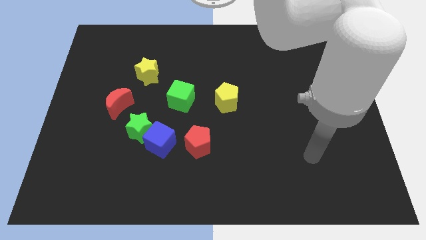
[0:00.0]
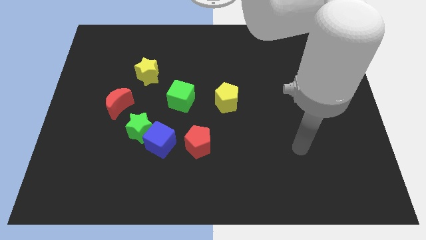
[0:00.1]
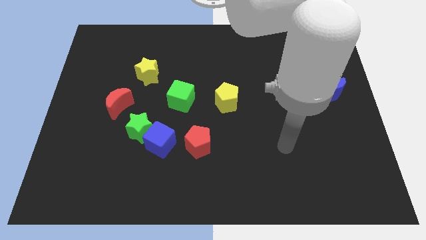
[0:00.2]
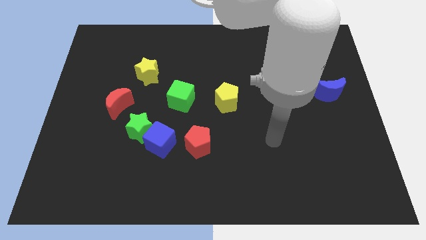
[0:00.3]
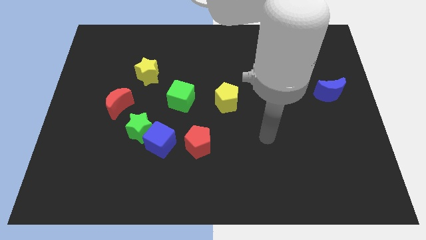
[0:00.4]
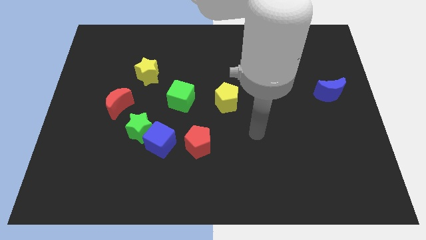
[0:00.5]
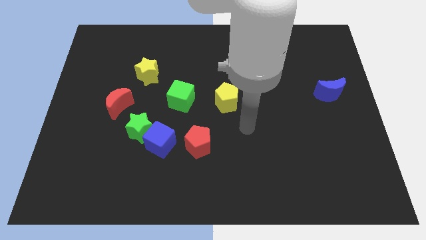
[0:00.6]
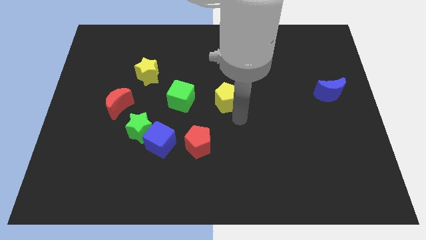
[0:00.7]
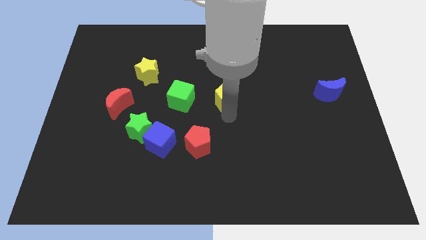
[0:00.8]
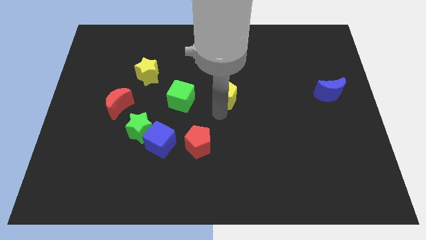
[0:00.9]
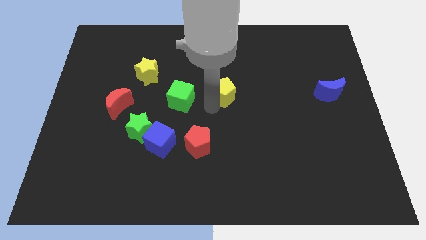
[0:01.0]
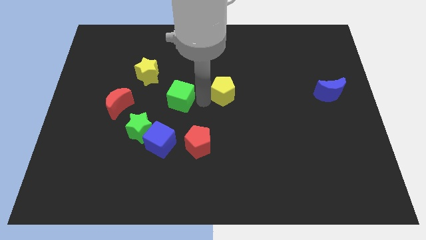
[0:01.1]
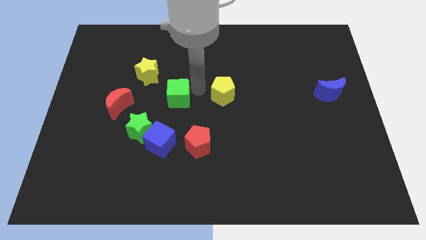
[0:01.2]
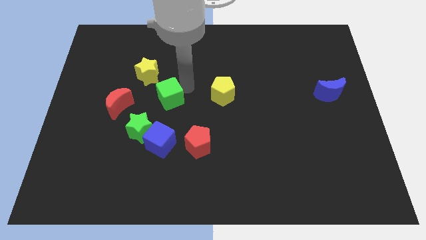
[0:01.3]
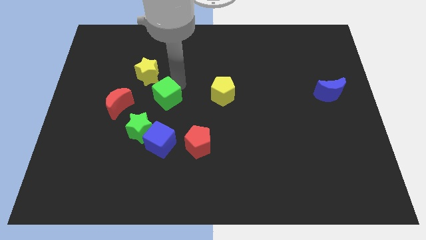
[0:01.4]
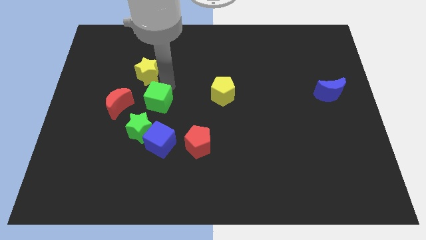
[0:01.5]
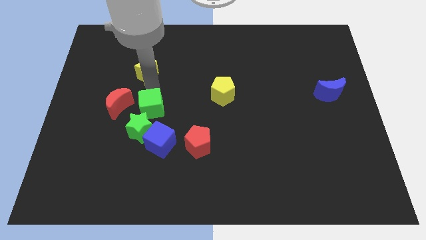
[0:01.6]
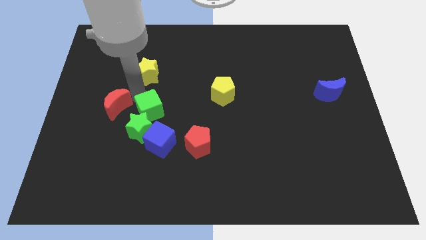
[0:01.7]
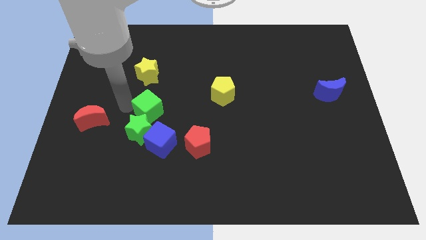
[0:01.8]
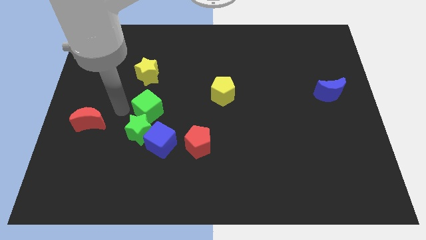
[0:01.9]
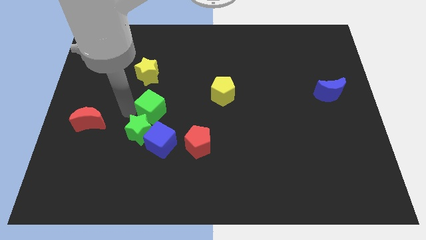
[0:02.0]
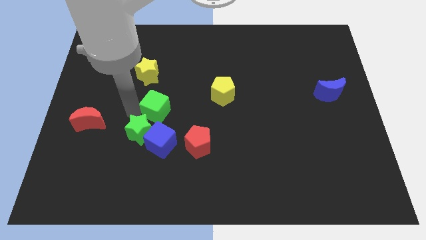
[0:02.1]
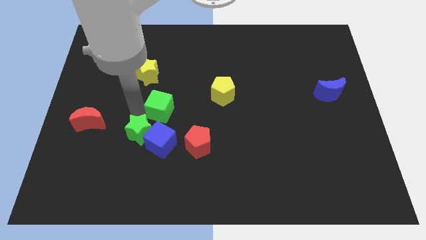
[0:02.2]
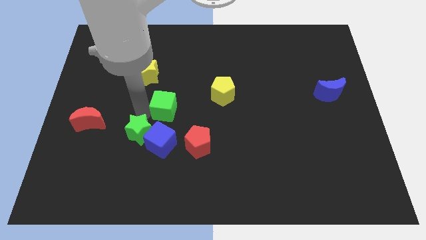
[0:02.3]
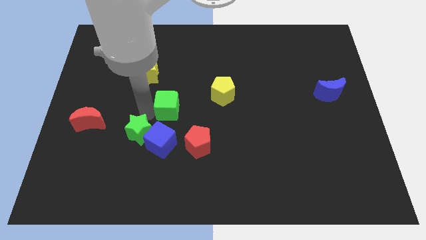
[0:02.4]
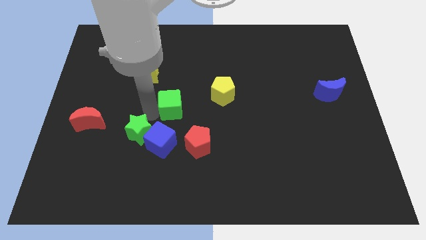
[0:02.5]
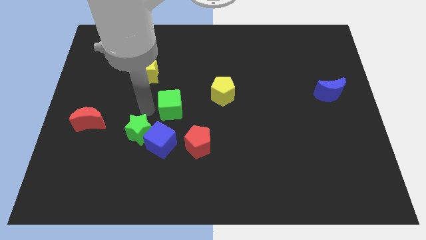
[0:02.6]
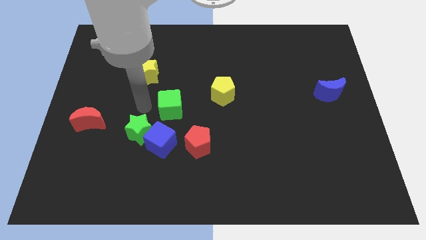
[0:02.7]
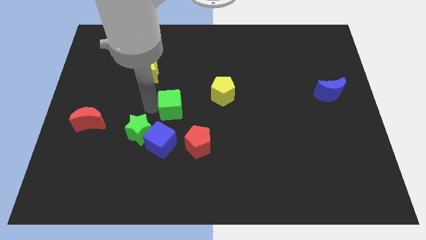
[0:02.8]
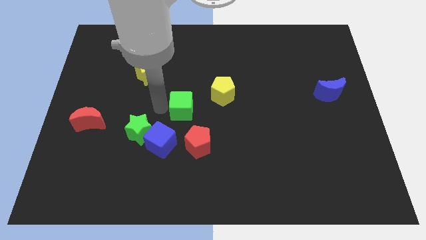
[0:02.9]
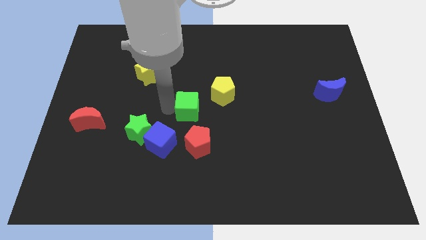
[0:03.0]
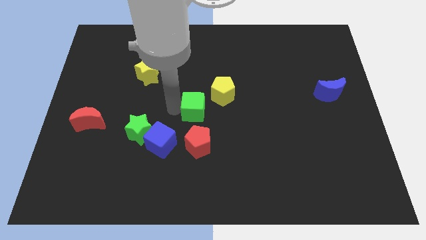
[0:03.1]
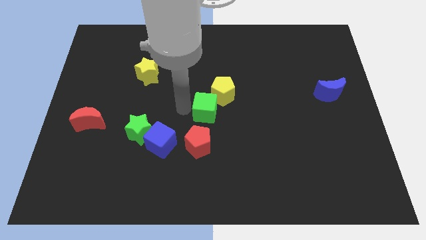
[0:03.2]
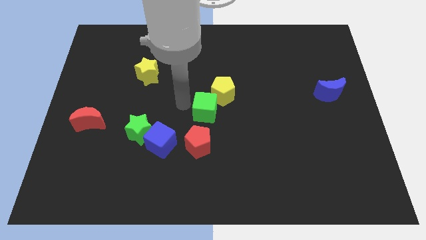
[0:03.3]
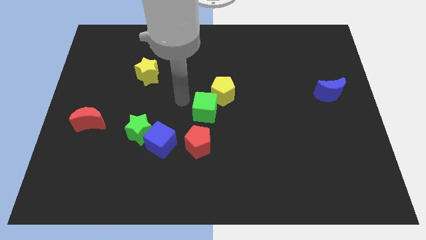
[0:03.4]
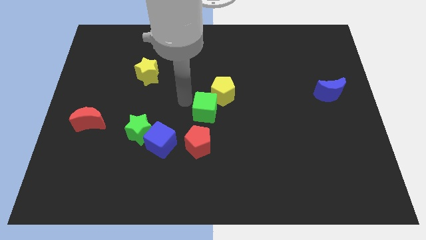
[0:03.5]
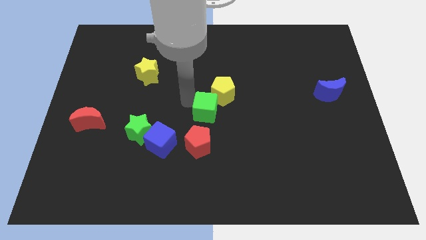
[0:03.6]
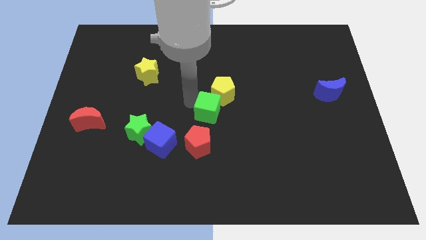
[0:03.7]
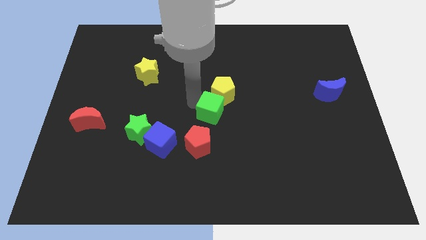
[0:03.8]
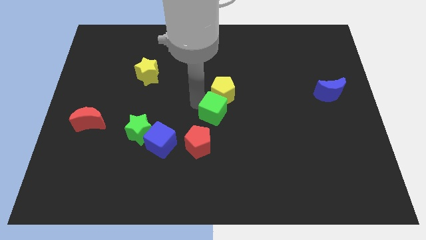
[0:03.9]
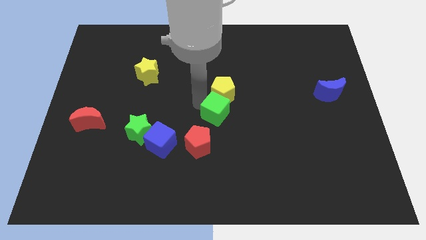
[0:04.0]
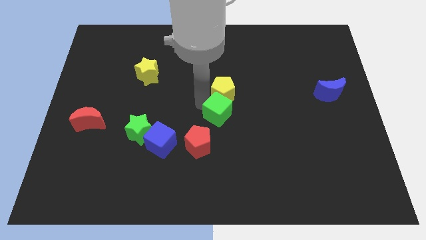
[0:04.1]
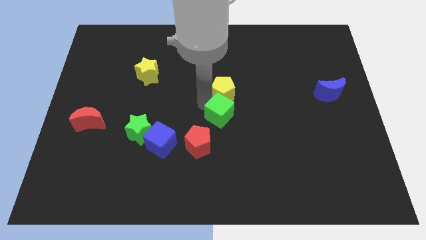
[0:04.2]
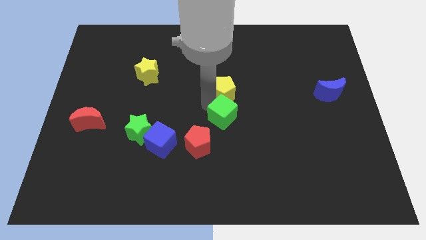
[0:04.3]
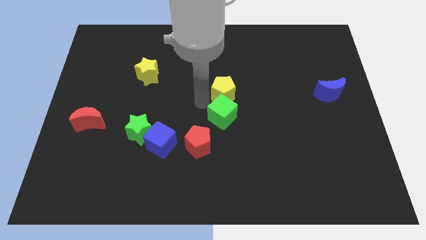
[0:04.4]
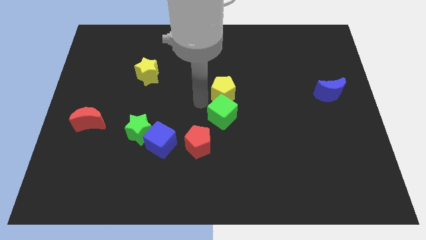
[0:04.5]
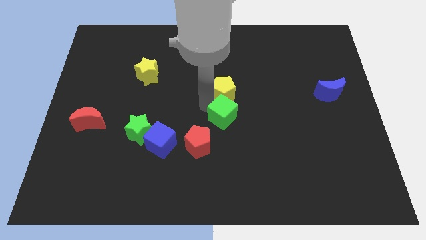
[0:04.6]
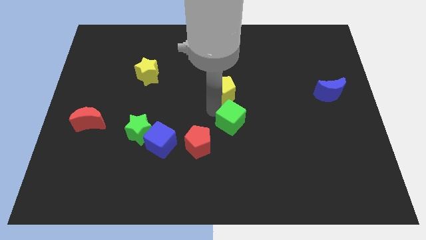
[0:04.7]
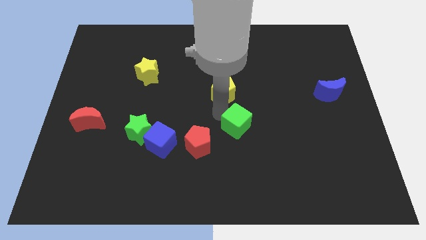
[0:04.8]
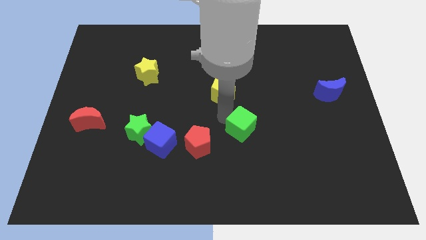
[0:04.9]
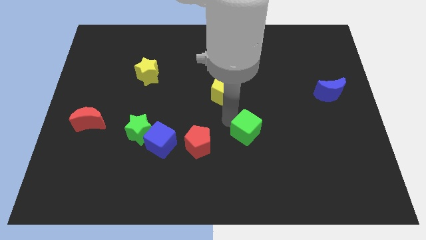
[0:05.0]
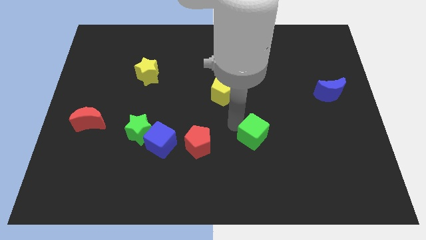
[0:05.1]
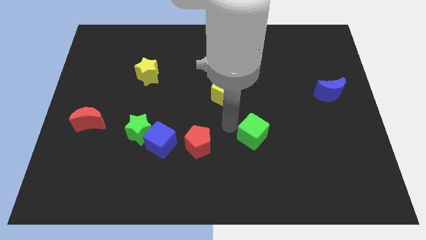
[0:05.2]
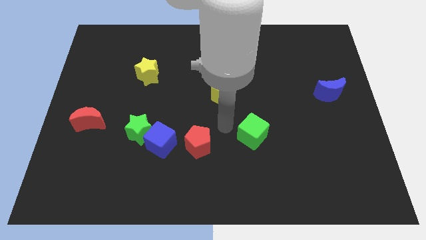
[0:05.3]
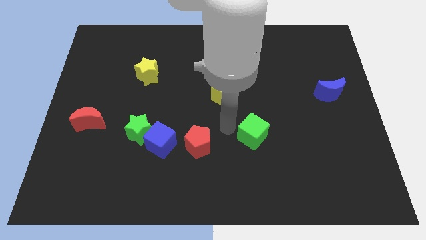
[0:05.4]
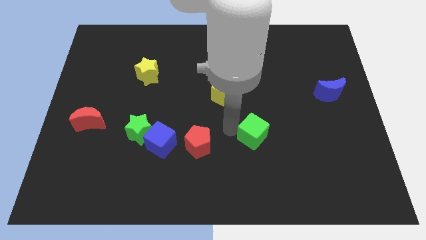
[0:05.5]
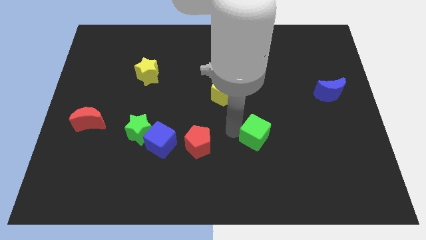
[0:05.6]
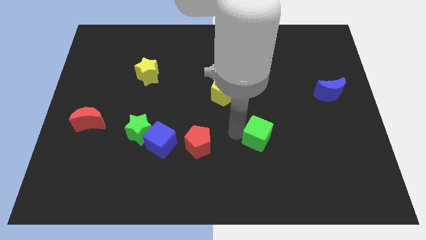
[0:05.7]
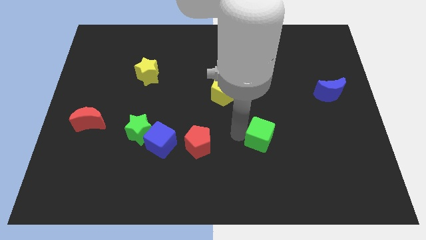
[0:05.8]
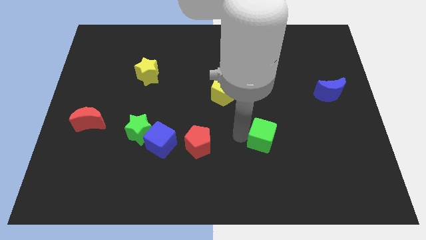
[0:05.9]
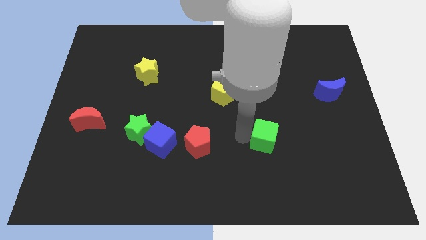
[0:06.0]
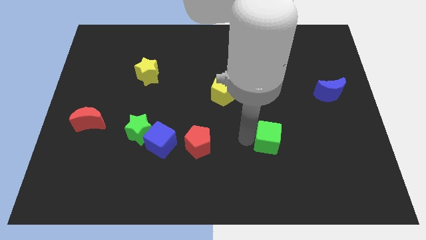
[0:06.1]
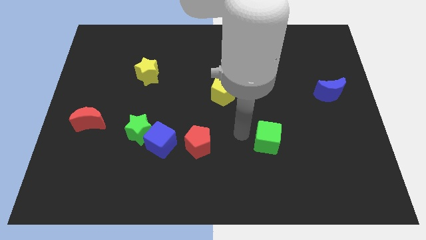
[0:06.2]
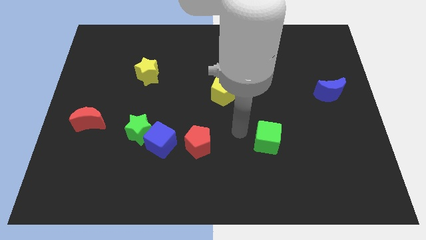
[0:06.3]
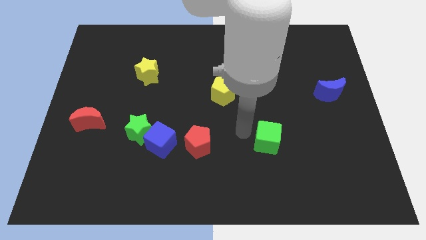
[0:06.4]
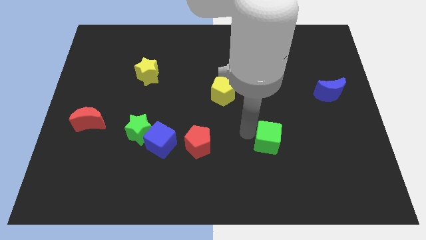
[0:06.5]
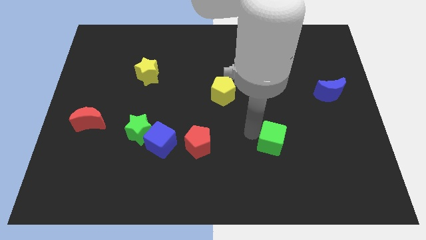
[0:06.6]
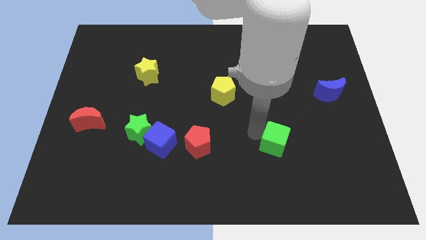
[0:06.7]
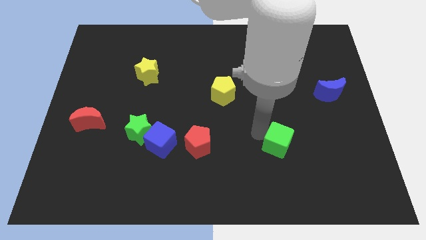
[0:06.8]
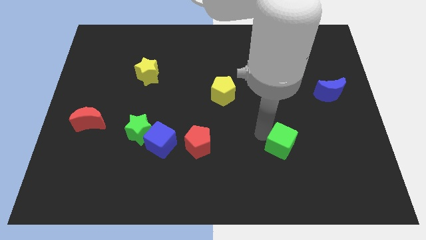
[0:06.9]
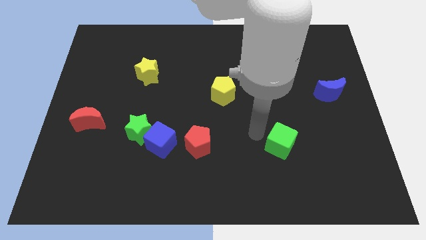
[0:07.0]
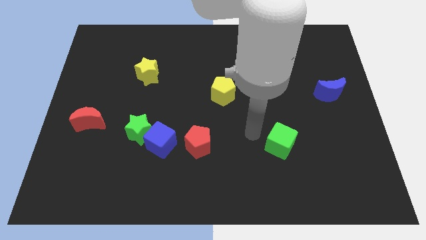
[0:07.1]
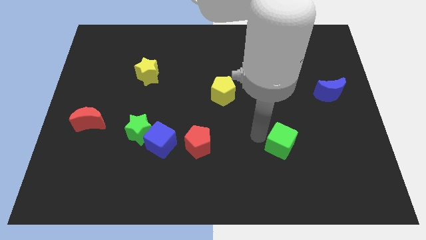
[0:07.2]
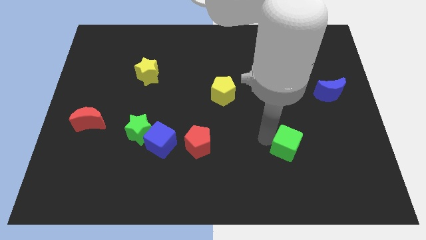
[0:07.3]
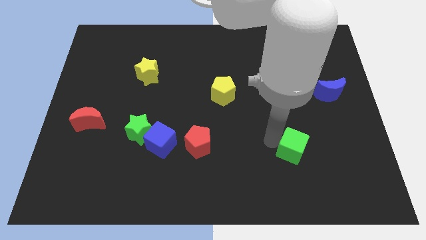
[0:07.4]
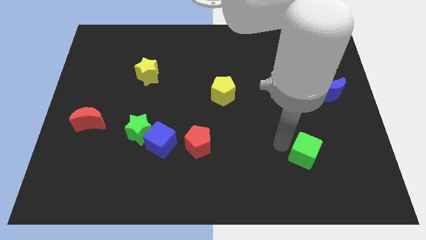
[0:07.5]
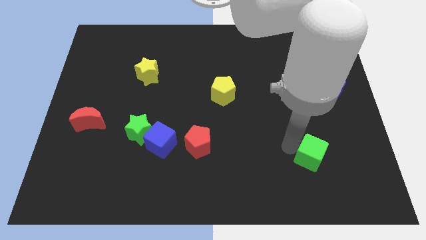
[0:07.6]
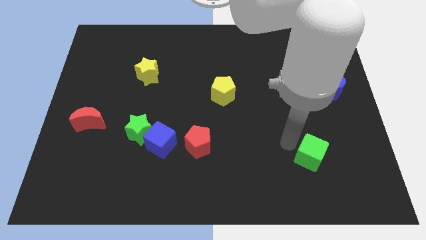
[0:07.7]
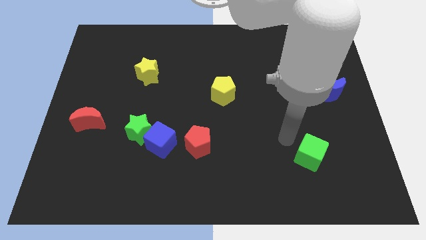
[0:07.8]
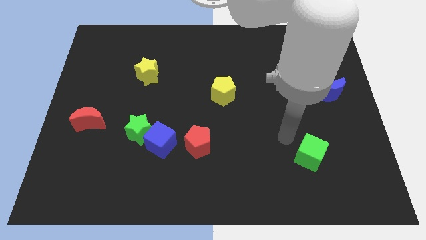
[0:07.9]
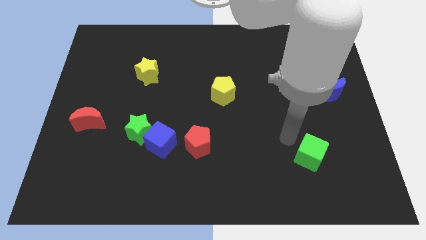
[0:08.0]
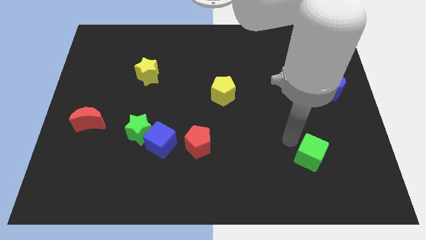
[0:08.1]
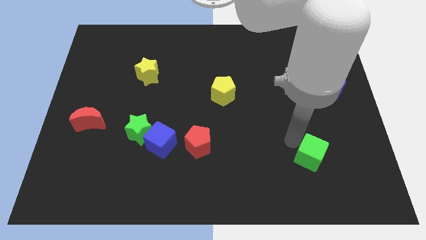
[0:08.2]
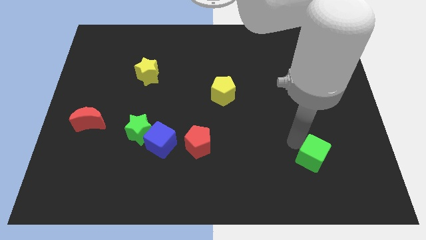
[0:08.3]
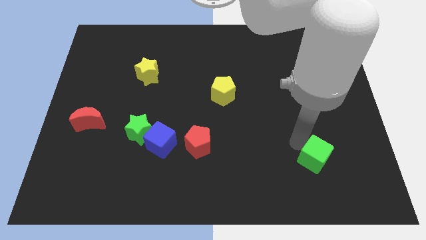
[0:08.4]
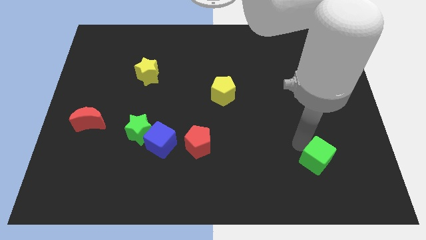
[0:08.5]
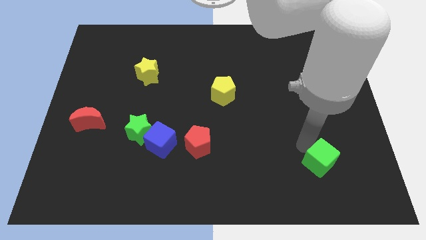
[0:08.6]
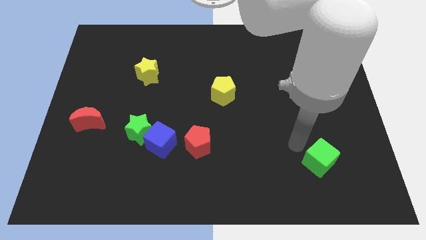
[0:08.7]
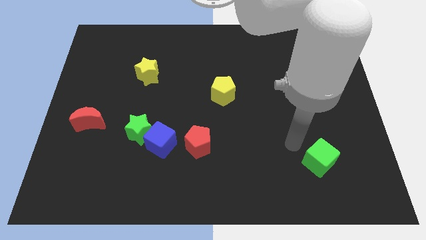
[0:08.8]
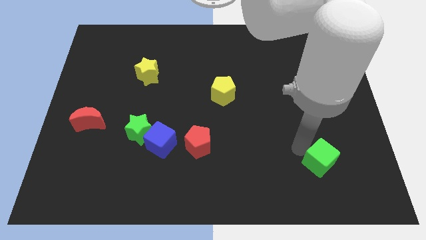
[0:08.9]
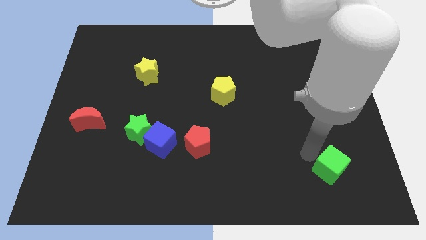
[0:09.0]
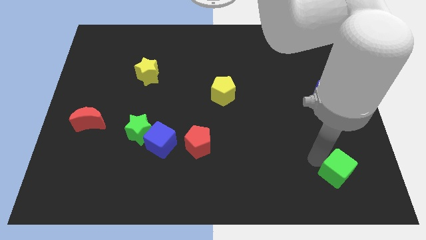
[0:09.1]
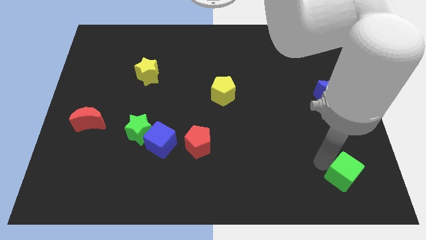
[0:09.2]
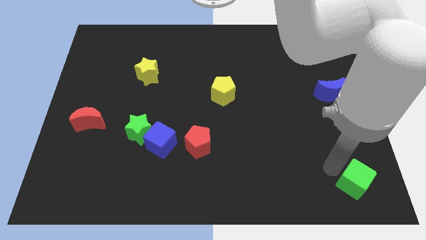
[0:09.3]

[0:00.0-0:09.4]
put the green cube to the bottom right
